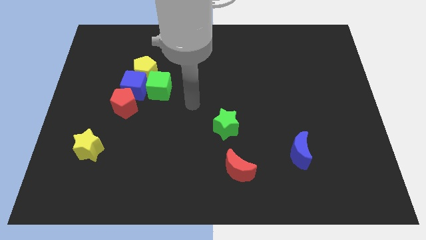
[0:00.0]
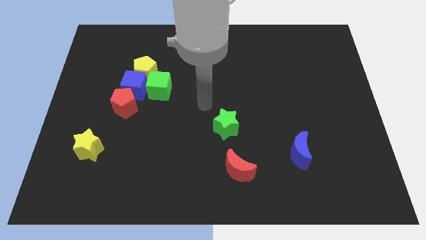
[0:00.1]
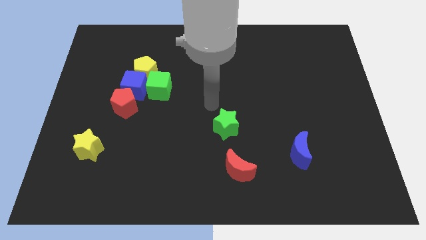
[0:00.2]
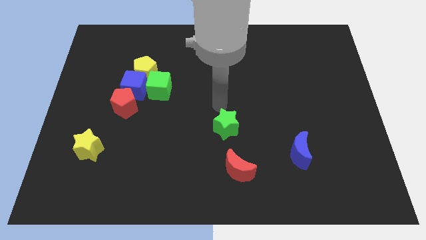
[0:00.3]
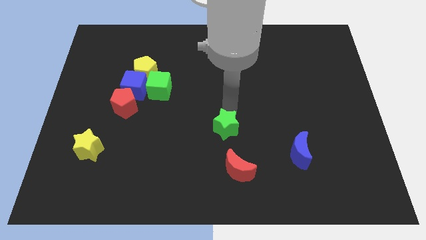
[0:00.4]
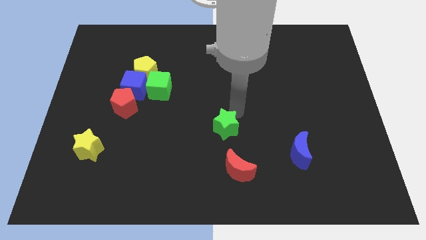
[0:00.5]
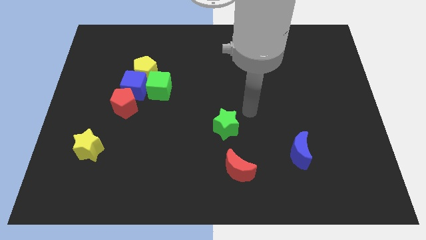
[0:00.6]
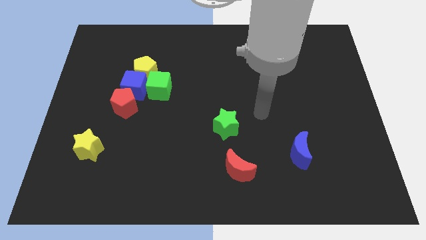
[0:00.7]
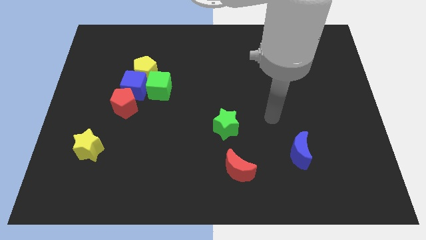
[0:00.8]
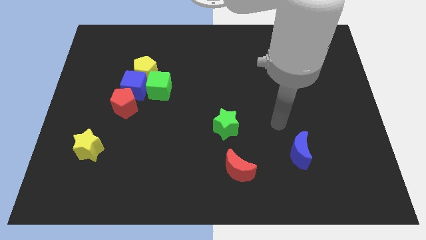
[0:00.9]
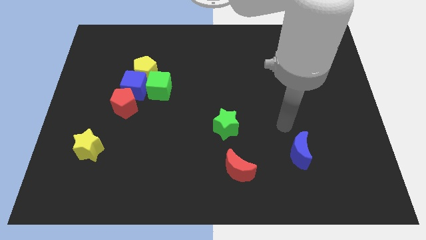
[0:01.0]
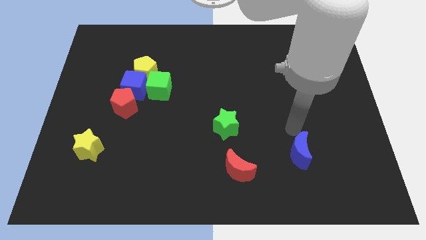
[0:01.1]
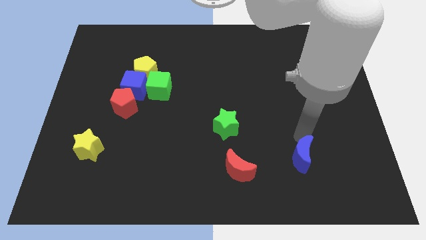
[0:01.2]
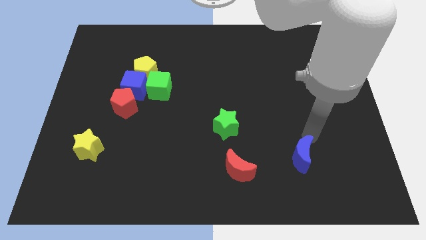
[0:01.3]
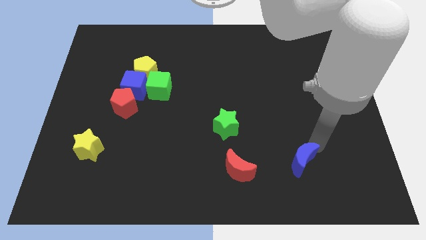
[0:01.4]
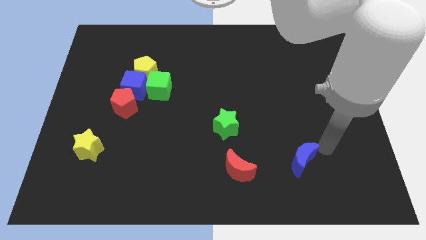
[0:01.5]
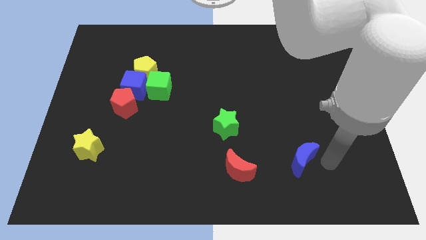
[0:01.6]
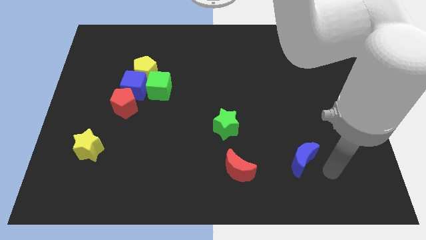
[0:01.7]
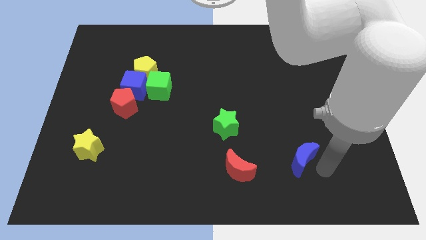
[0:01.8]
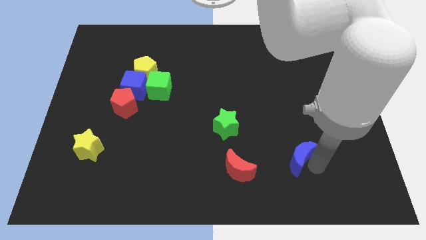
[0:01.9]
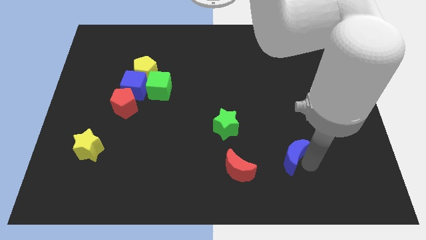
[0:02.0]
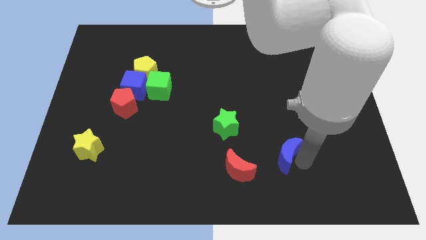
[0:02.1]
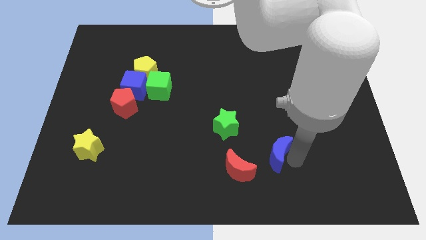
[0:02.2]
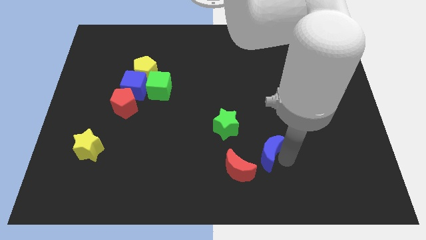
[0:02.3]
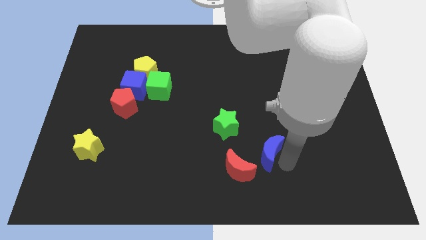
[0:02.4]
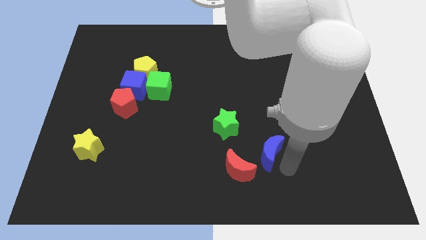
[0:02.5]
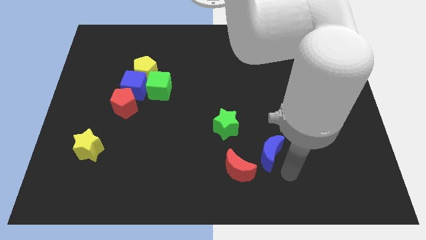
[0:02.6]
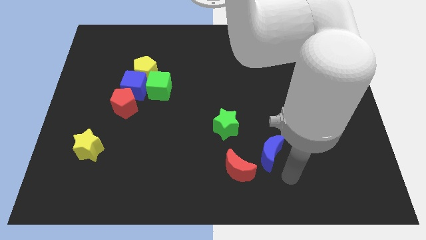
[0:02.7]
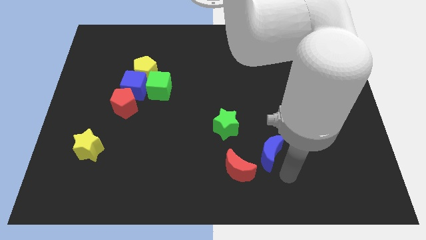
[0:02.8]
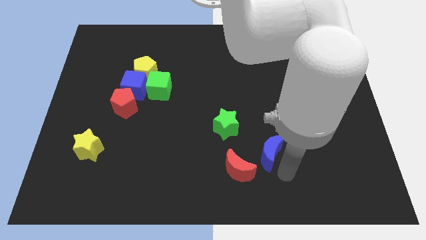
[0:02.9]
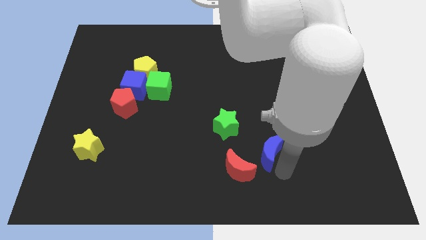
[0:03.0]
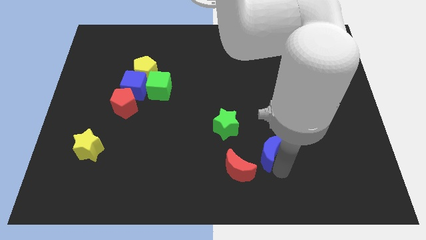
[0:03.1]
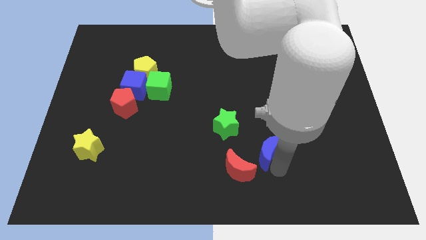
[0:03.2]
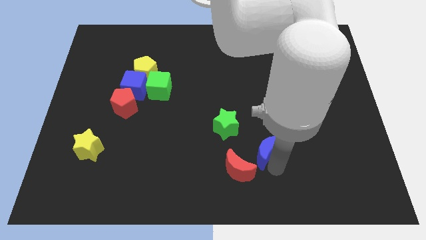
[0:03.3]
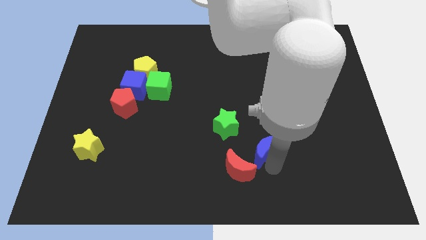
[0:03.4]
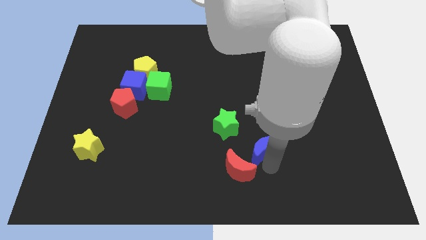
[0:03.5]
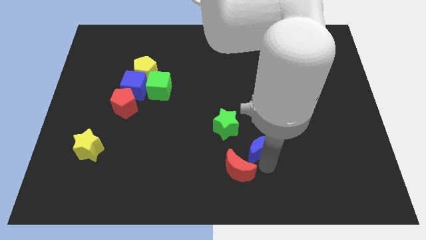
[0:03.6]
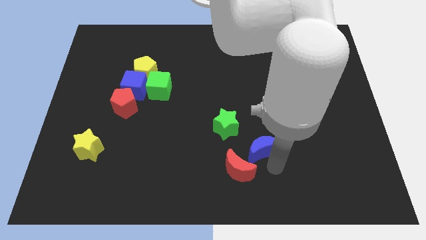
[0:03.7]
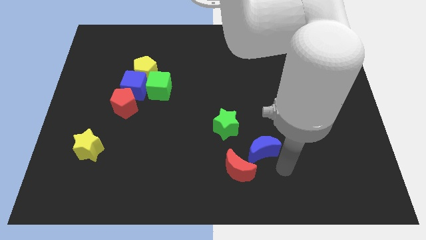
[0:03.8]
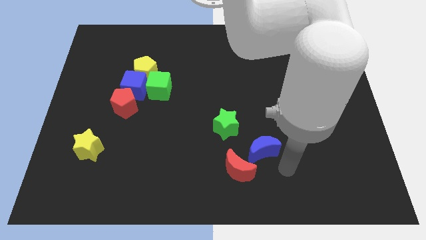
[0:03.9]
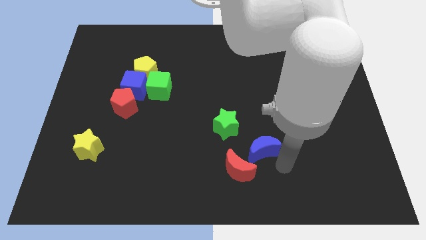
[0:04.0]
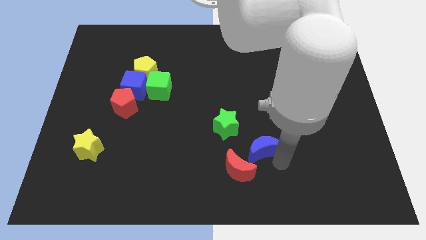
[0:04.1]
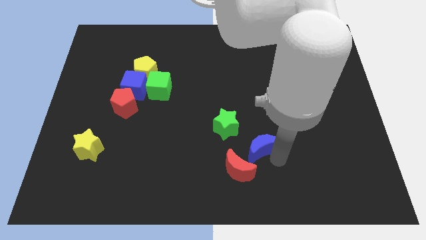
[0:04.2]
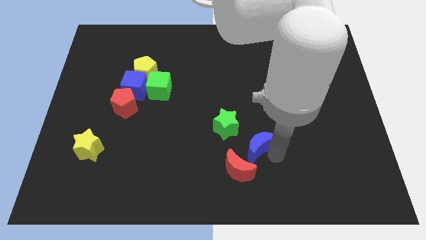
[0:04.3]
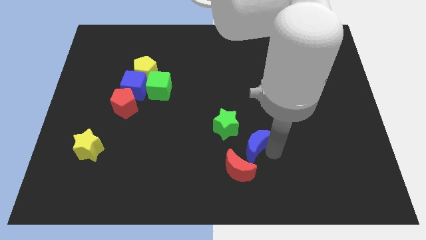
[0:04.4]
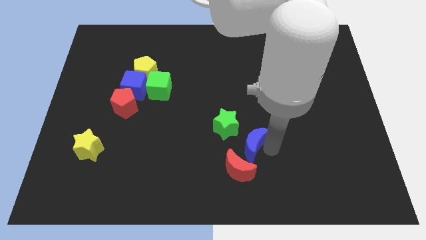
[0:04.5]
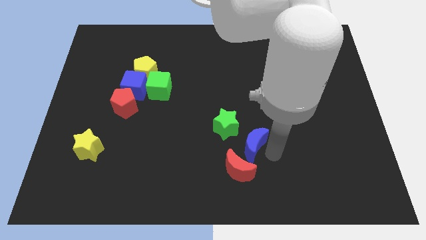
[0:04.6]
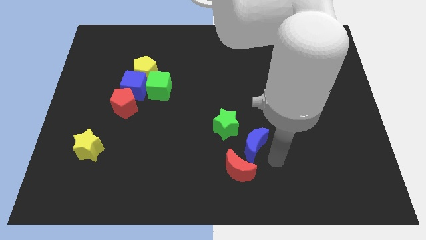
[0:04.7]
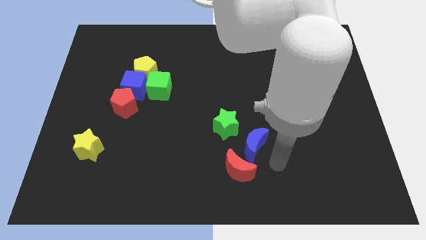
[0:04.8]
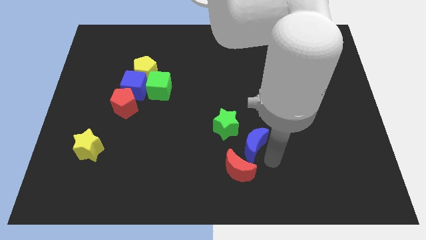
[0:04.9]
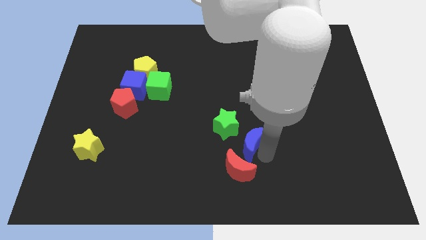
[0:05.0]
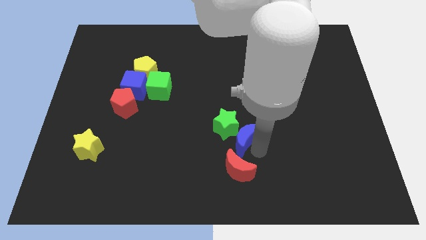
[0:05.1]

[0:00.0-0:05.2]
move the blue moon to the green star

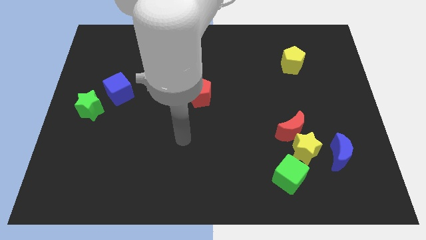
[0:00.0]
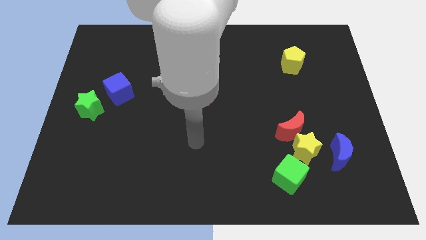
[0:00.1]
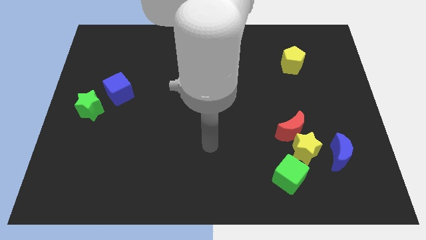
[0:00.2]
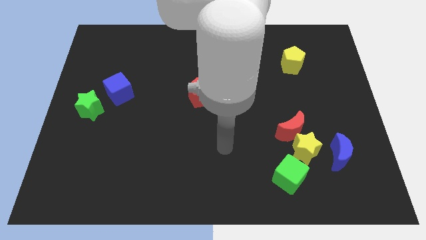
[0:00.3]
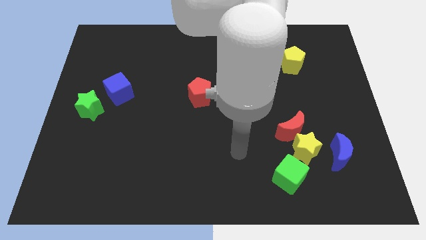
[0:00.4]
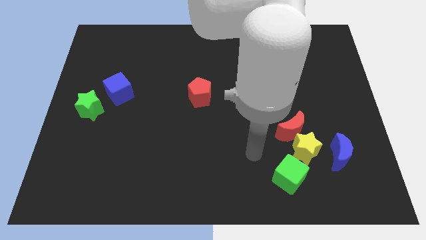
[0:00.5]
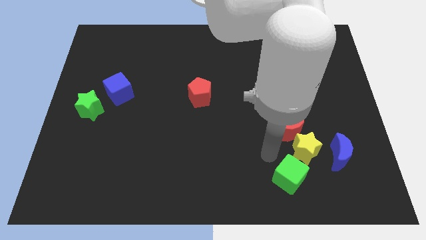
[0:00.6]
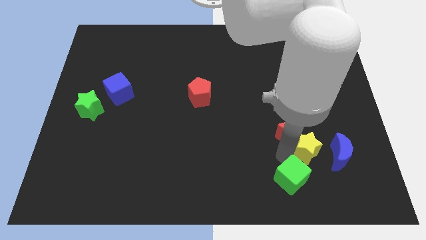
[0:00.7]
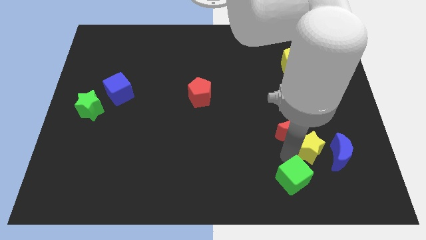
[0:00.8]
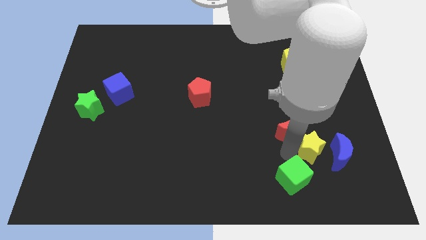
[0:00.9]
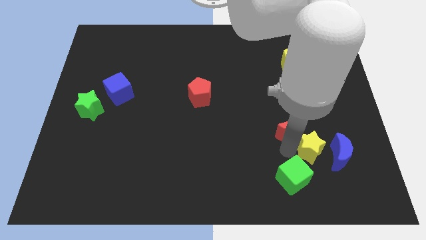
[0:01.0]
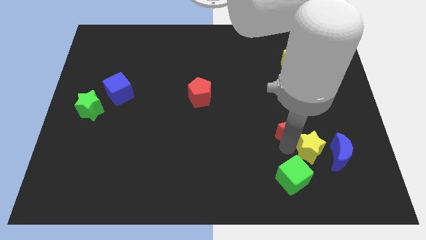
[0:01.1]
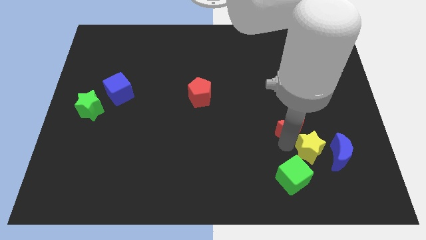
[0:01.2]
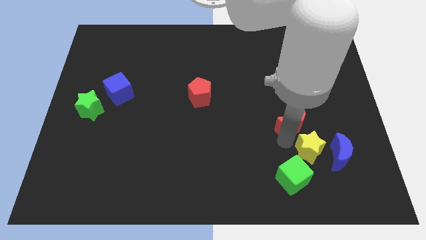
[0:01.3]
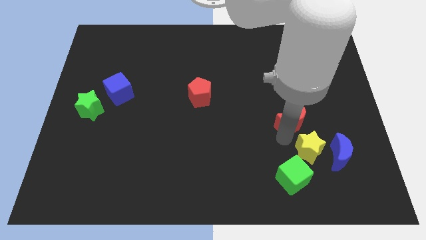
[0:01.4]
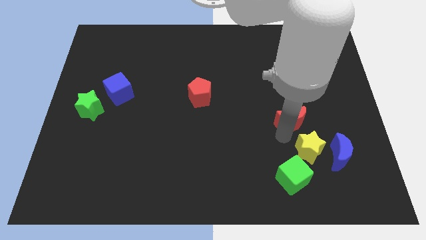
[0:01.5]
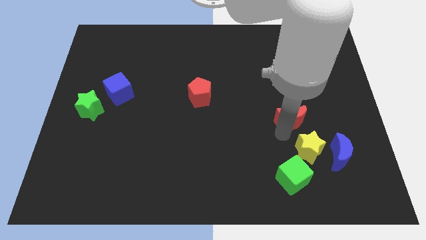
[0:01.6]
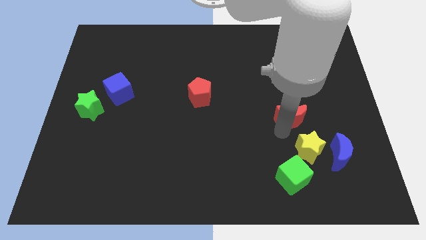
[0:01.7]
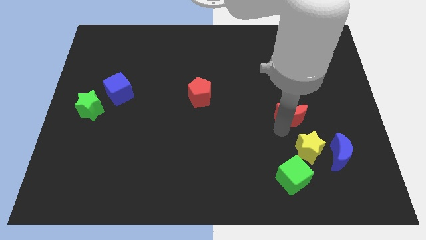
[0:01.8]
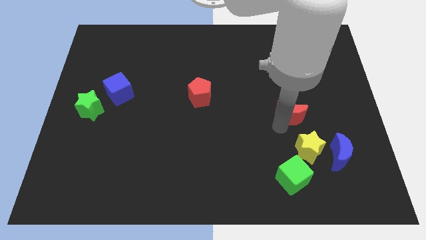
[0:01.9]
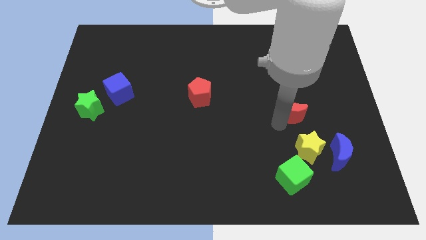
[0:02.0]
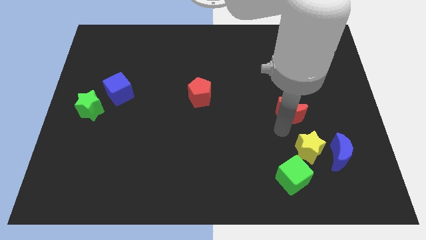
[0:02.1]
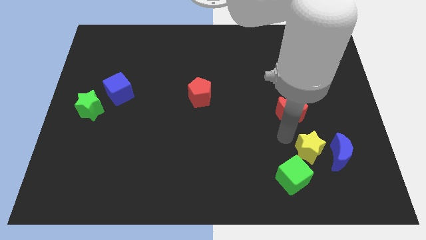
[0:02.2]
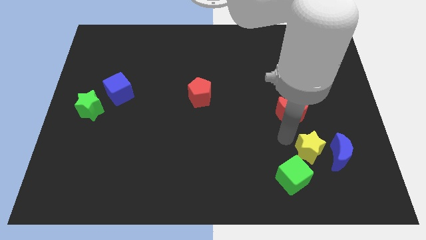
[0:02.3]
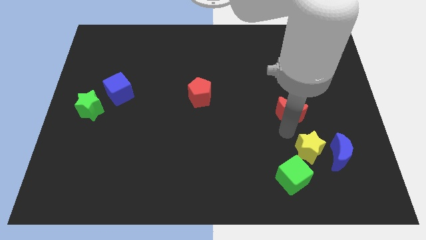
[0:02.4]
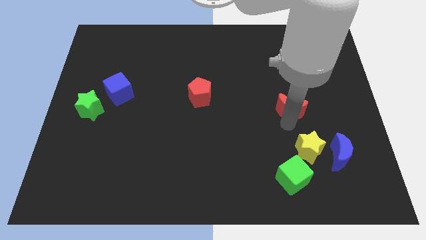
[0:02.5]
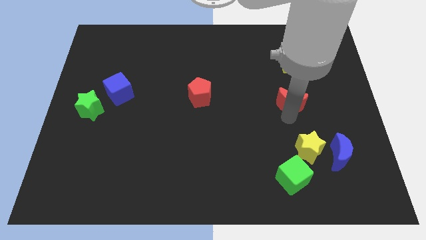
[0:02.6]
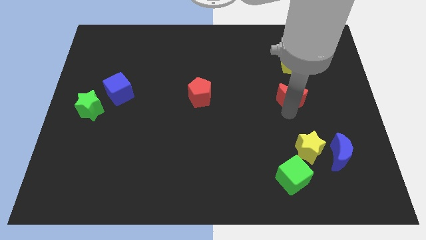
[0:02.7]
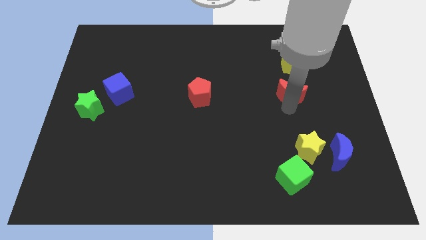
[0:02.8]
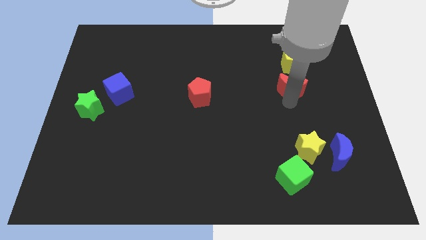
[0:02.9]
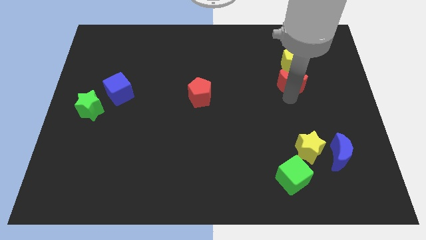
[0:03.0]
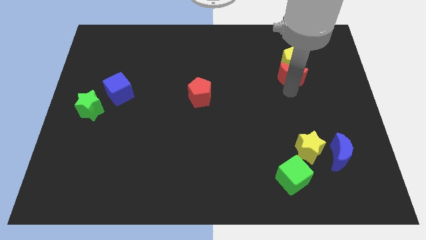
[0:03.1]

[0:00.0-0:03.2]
move the red moon towards the yellow pentagon
